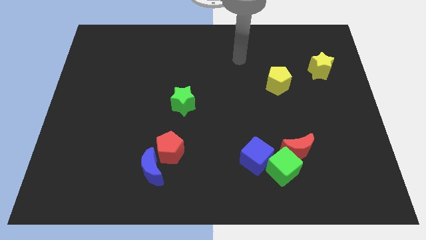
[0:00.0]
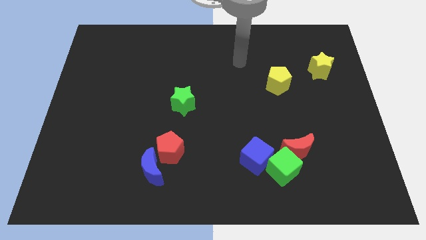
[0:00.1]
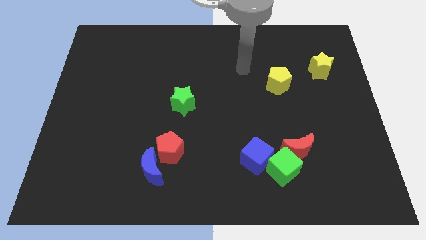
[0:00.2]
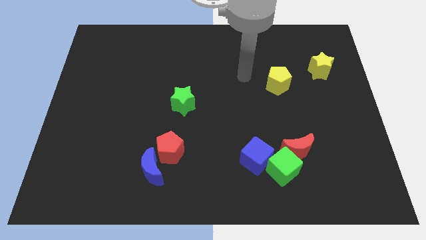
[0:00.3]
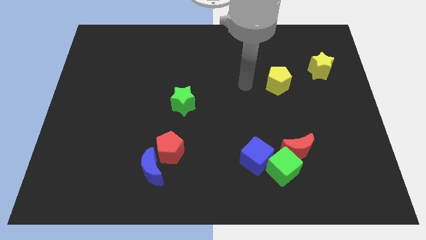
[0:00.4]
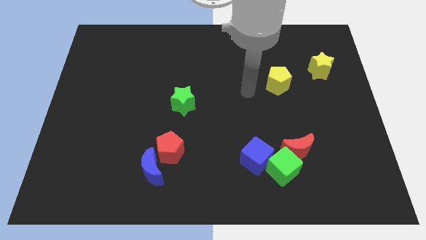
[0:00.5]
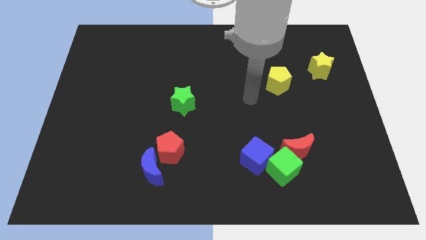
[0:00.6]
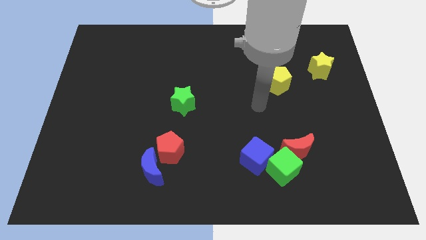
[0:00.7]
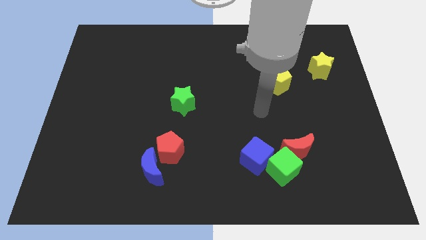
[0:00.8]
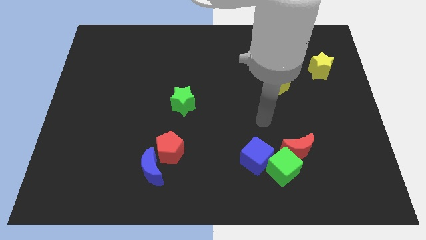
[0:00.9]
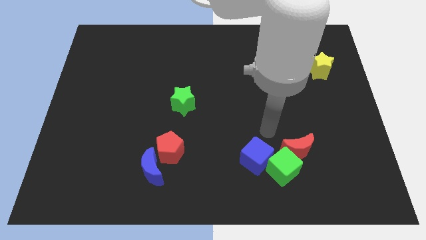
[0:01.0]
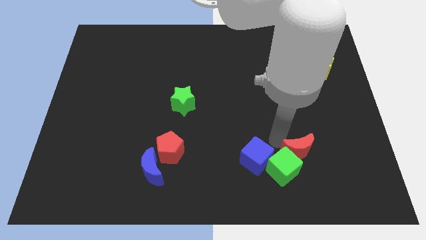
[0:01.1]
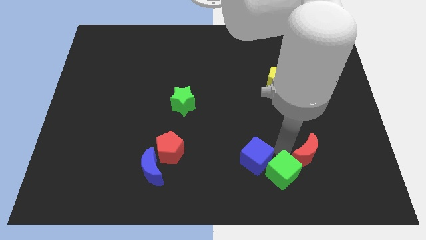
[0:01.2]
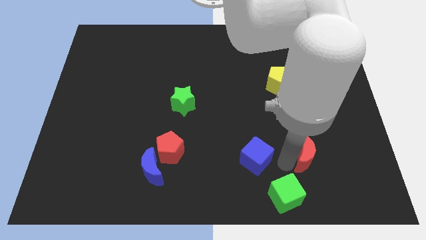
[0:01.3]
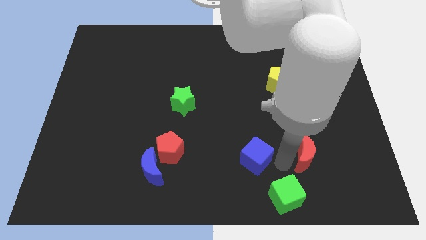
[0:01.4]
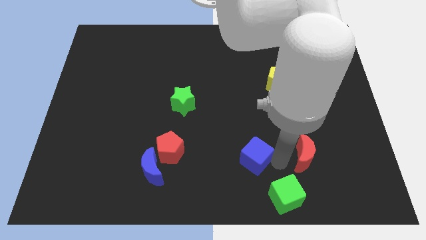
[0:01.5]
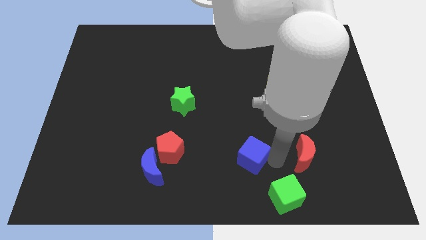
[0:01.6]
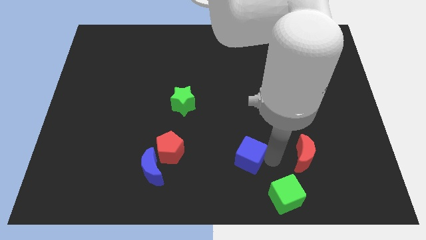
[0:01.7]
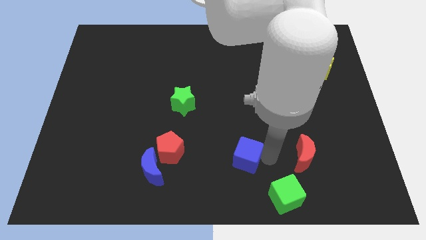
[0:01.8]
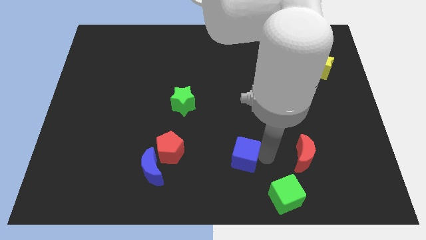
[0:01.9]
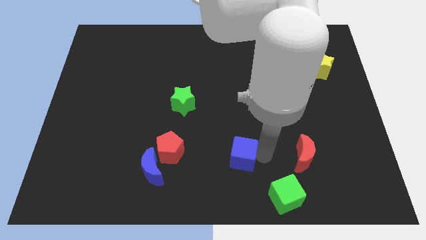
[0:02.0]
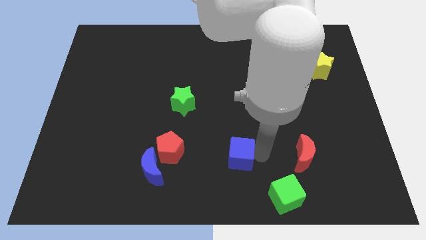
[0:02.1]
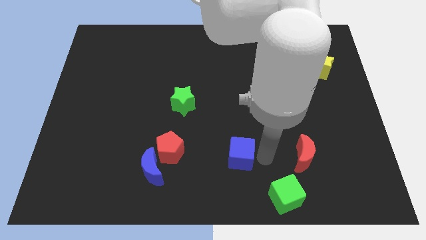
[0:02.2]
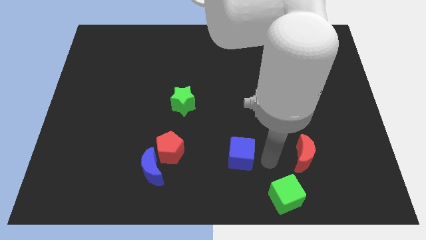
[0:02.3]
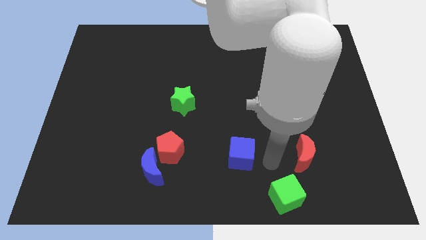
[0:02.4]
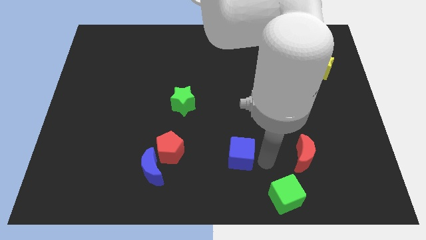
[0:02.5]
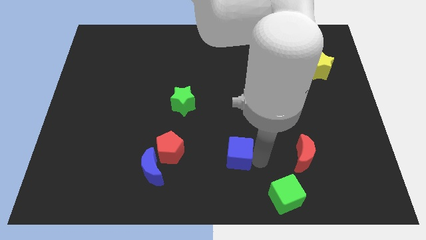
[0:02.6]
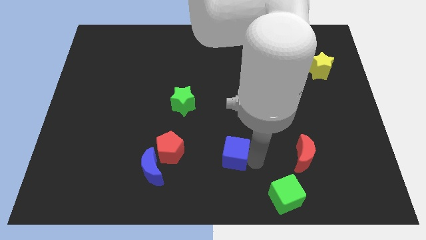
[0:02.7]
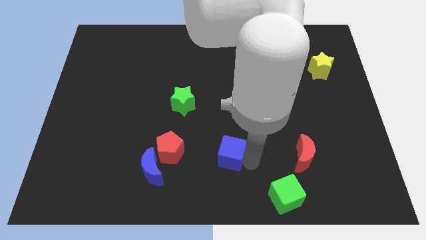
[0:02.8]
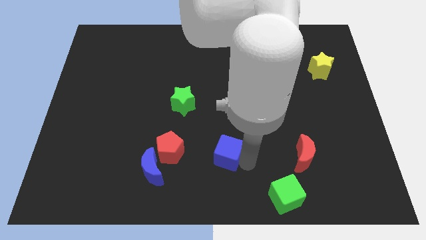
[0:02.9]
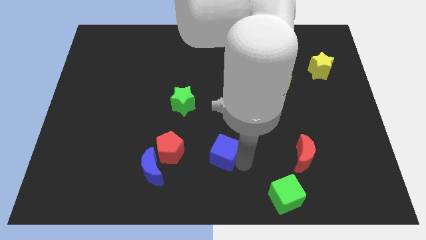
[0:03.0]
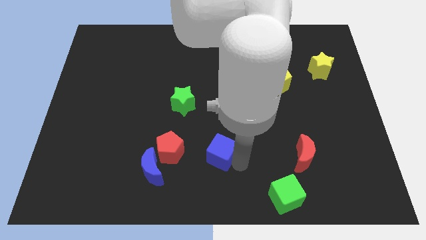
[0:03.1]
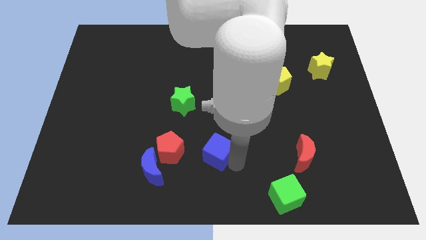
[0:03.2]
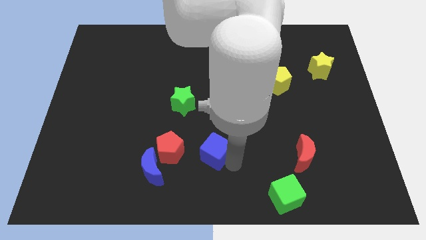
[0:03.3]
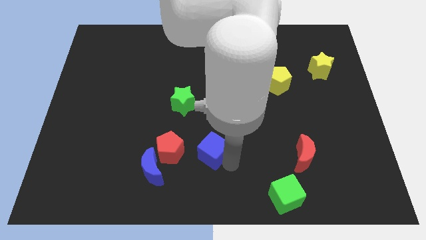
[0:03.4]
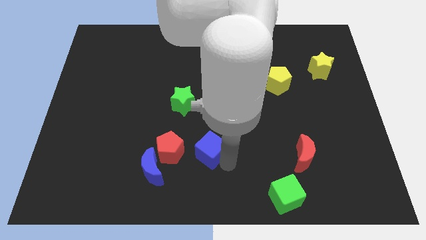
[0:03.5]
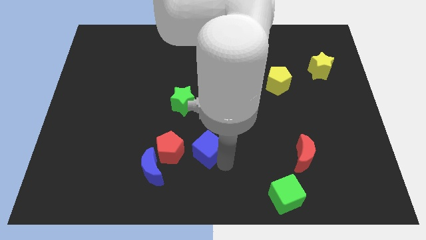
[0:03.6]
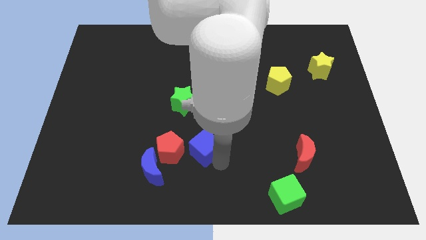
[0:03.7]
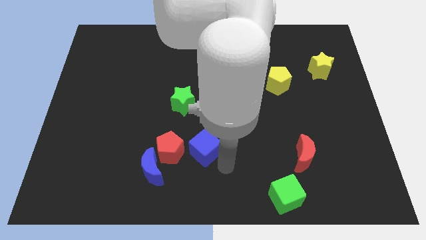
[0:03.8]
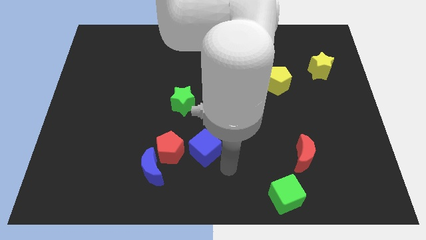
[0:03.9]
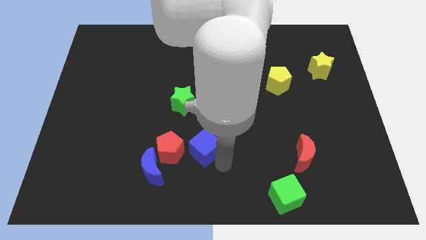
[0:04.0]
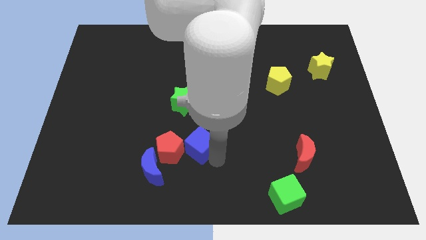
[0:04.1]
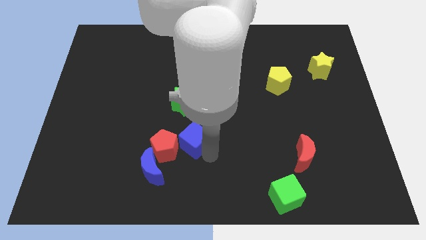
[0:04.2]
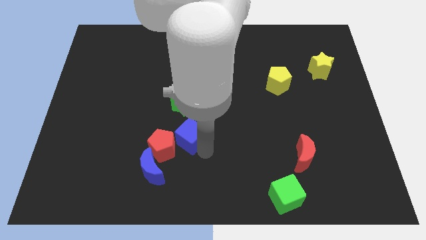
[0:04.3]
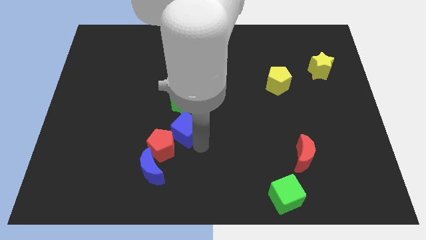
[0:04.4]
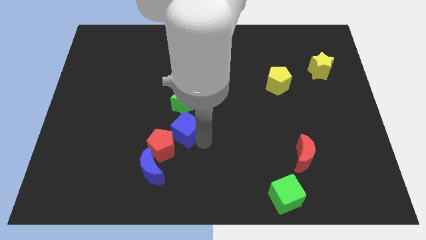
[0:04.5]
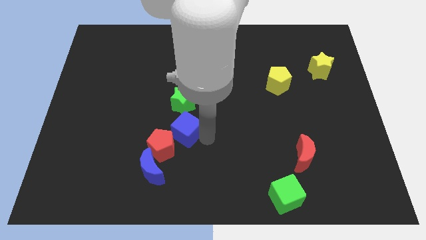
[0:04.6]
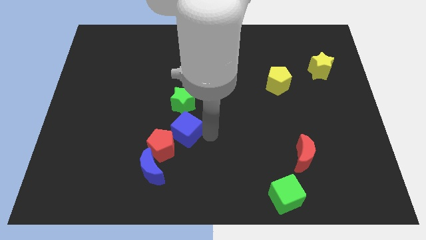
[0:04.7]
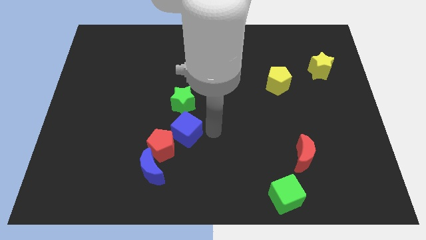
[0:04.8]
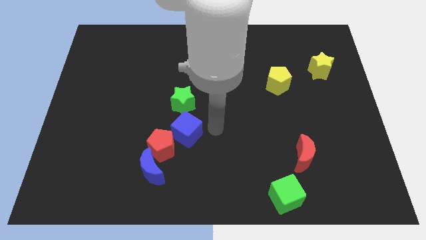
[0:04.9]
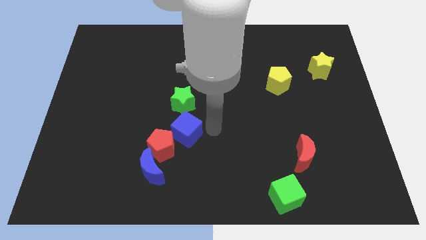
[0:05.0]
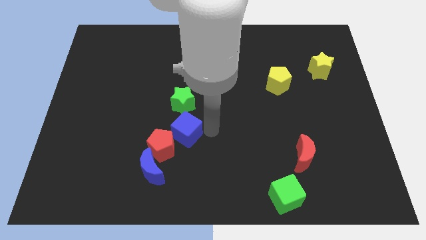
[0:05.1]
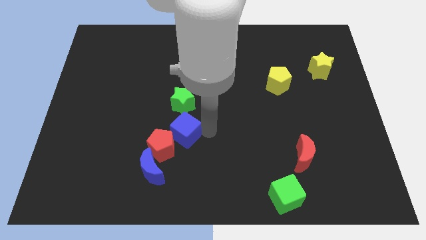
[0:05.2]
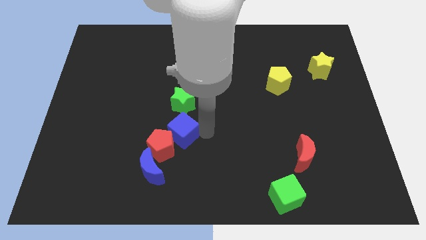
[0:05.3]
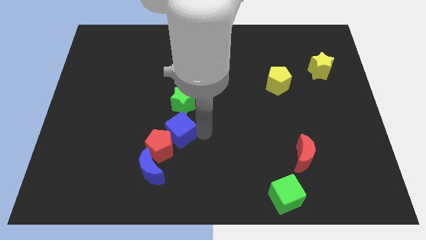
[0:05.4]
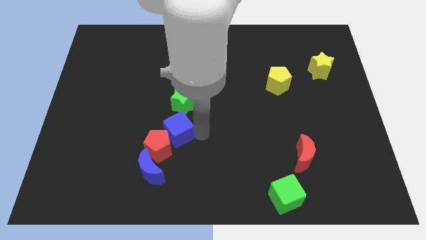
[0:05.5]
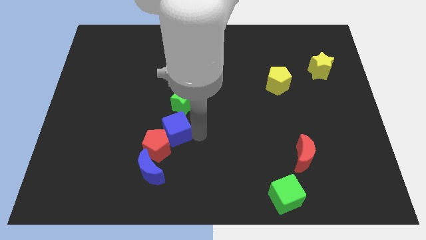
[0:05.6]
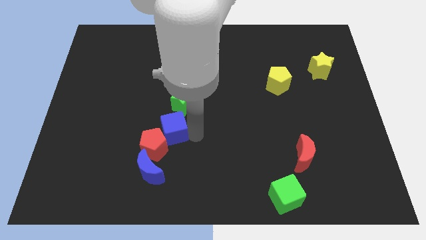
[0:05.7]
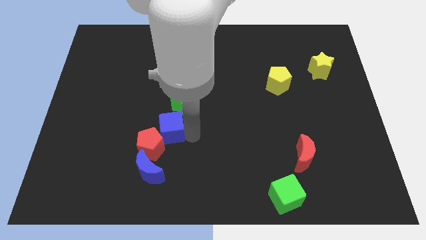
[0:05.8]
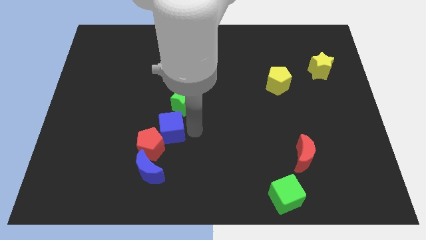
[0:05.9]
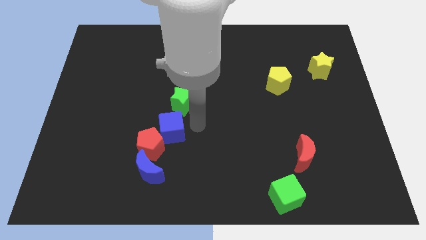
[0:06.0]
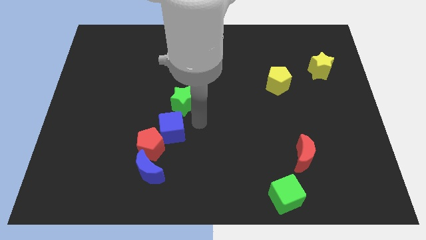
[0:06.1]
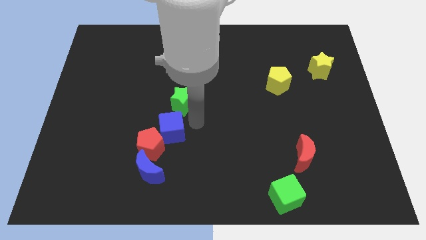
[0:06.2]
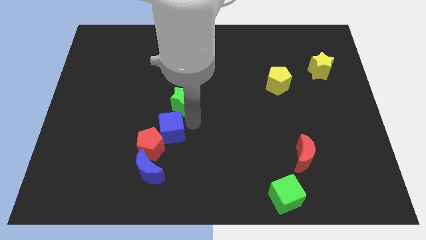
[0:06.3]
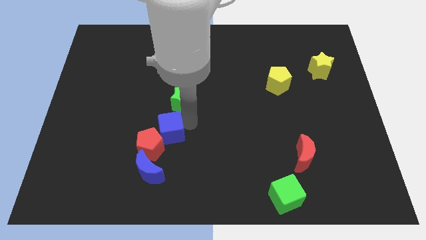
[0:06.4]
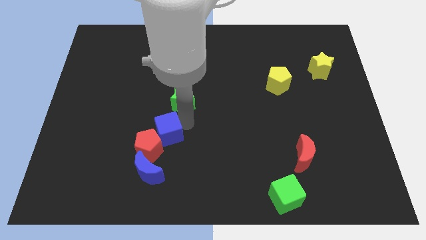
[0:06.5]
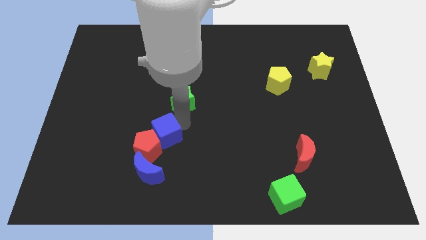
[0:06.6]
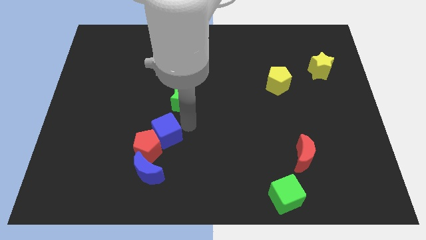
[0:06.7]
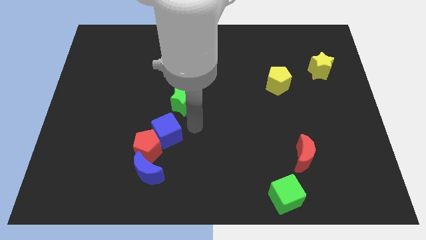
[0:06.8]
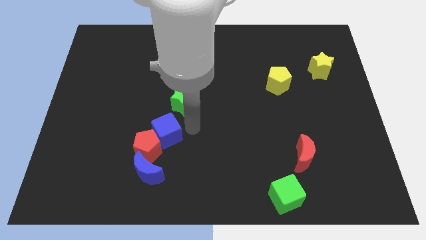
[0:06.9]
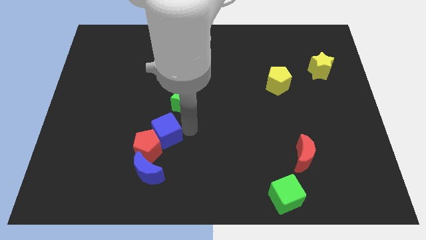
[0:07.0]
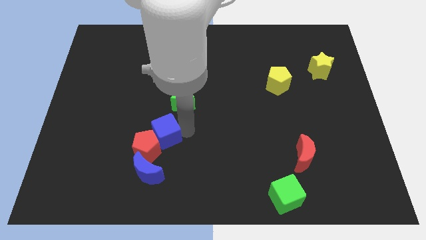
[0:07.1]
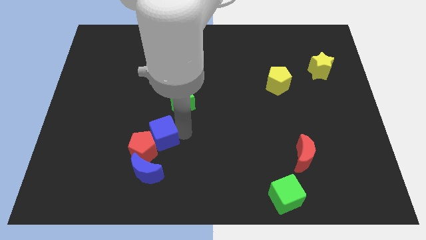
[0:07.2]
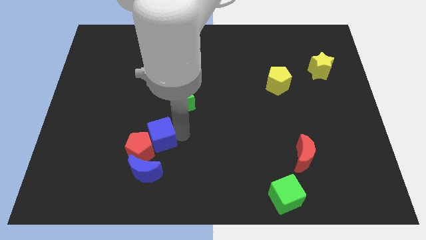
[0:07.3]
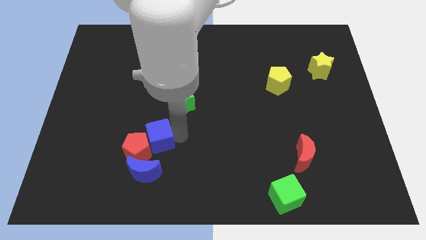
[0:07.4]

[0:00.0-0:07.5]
move the blue cube to the left
